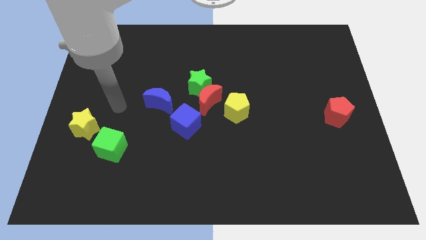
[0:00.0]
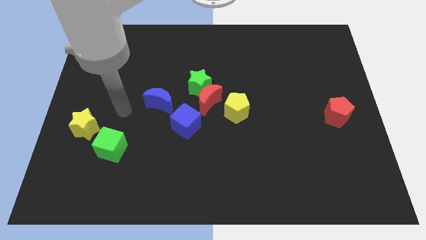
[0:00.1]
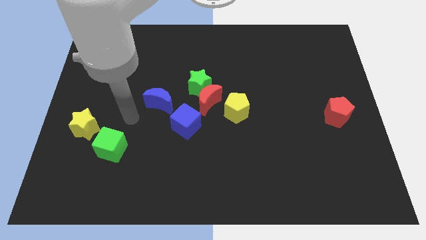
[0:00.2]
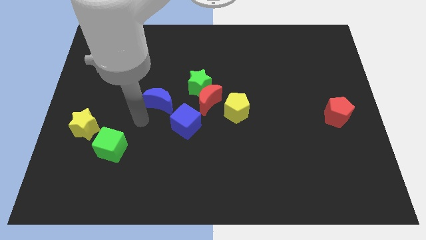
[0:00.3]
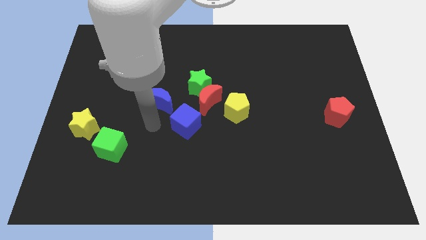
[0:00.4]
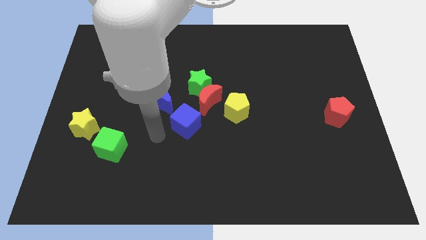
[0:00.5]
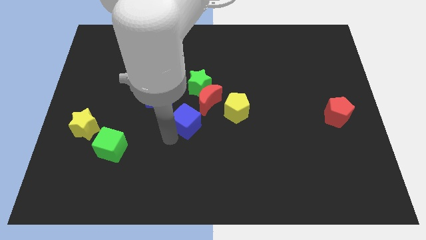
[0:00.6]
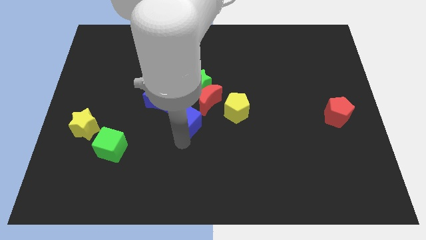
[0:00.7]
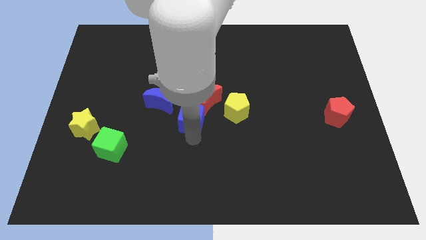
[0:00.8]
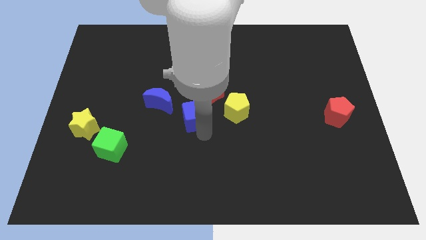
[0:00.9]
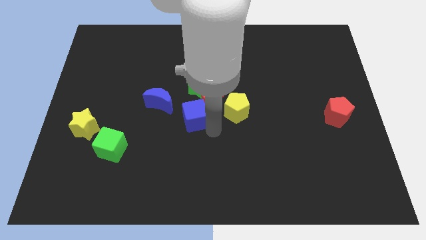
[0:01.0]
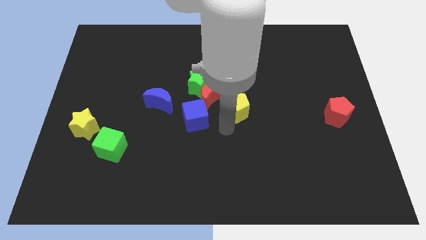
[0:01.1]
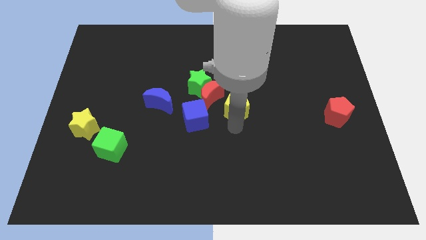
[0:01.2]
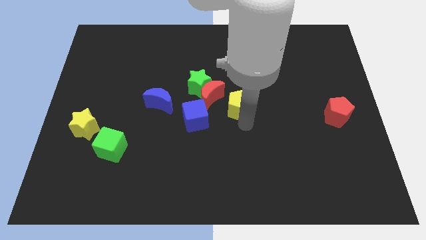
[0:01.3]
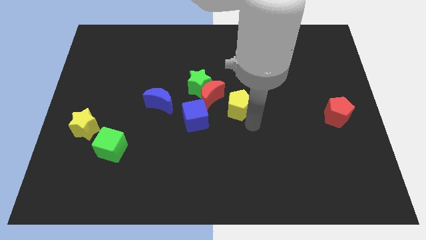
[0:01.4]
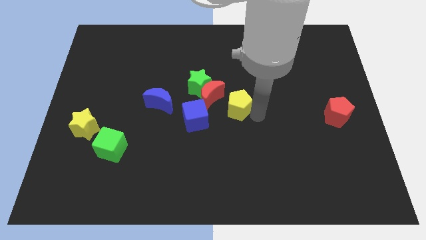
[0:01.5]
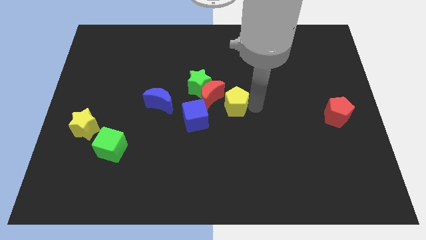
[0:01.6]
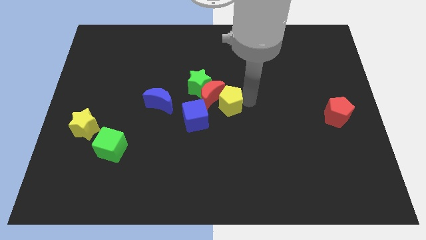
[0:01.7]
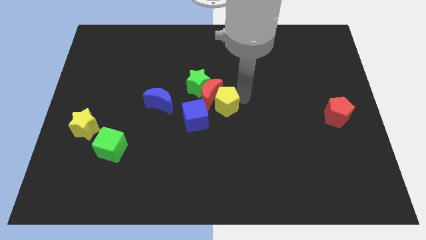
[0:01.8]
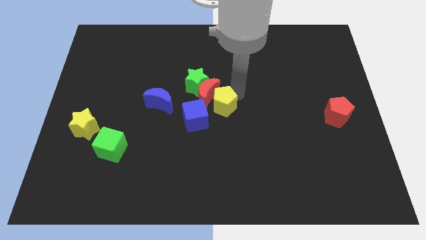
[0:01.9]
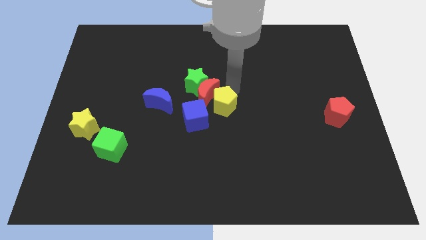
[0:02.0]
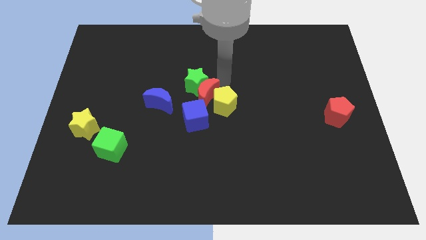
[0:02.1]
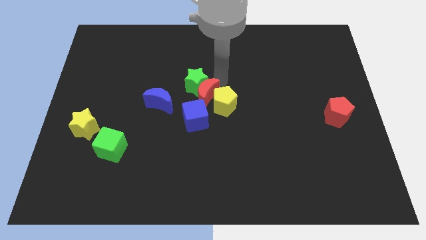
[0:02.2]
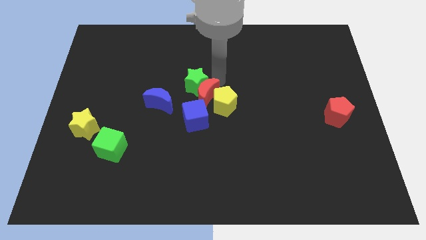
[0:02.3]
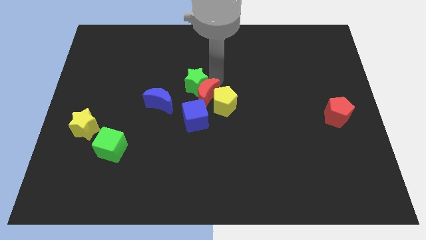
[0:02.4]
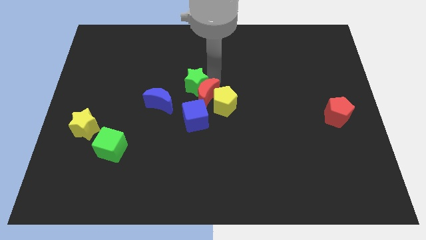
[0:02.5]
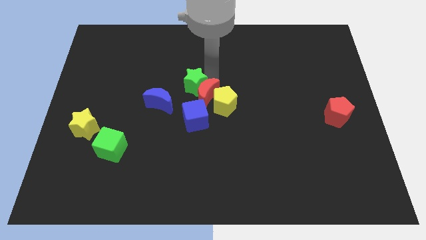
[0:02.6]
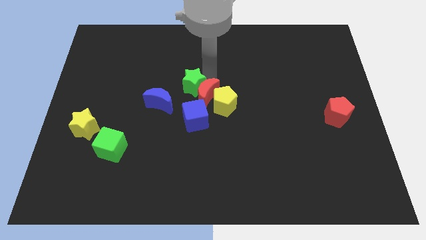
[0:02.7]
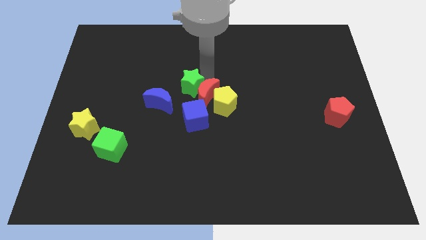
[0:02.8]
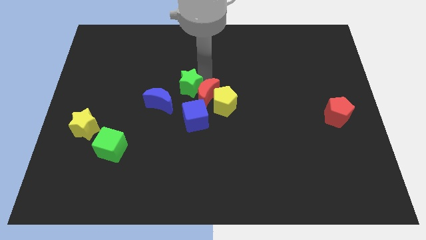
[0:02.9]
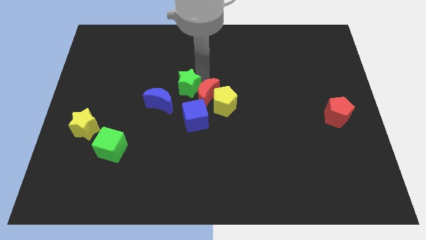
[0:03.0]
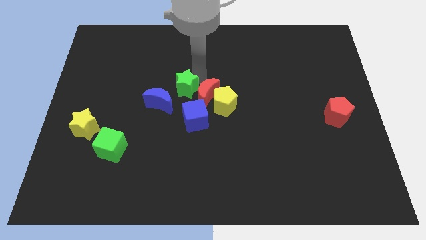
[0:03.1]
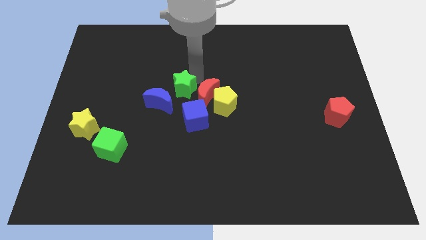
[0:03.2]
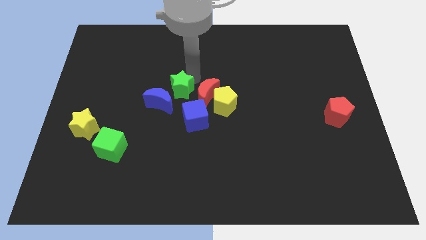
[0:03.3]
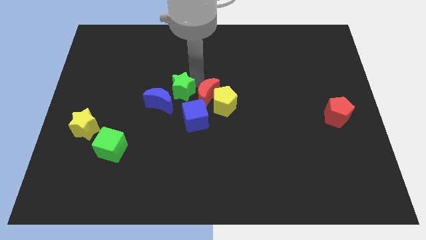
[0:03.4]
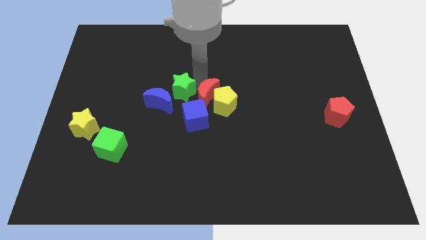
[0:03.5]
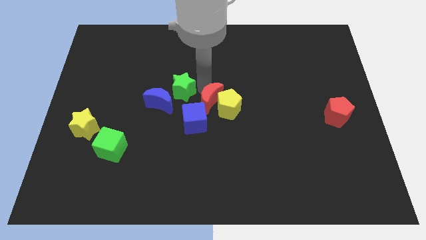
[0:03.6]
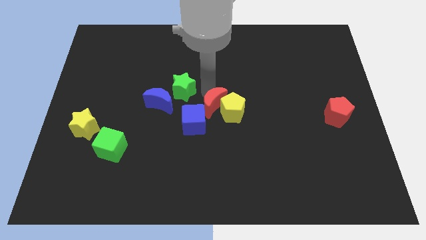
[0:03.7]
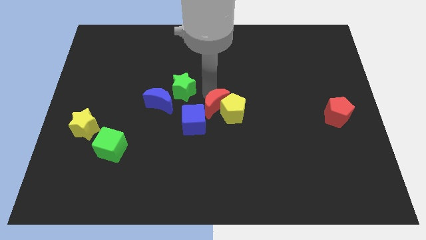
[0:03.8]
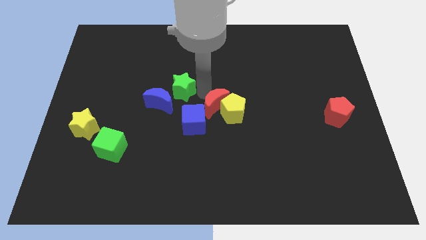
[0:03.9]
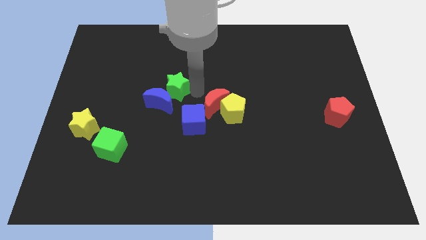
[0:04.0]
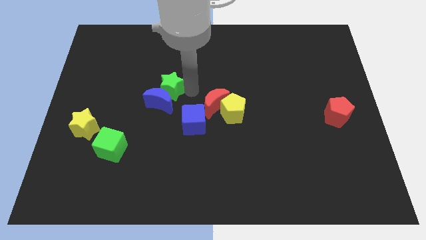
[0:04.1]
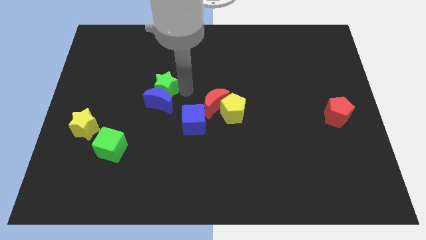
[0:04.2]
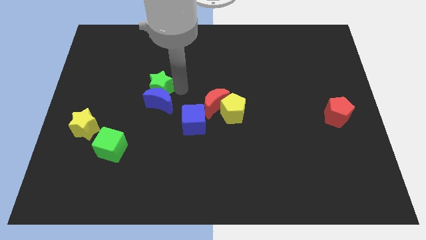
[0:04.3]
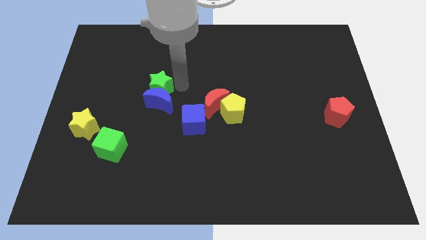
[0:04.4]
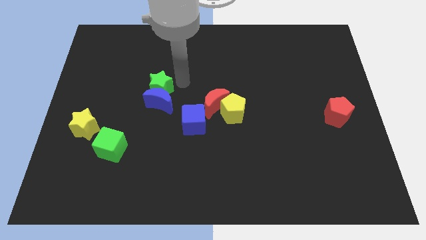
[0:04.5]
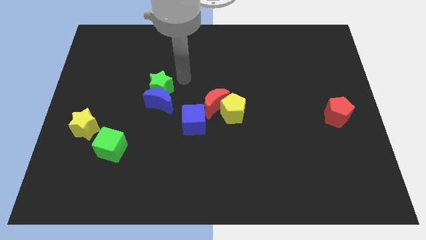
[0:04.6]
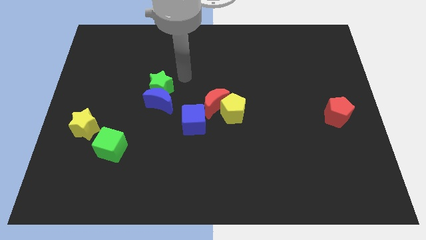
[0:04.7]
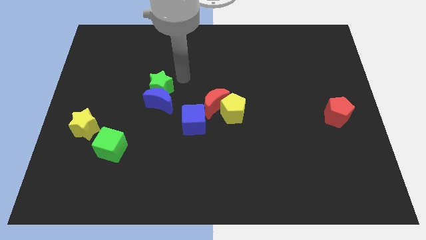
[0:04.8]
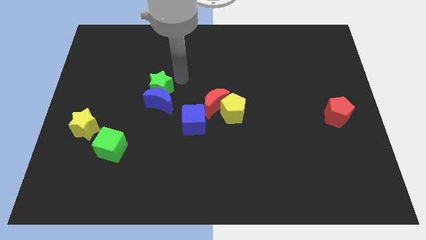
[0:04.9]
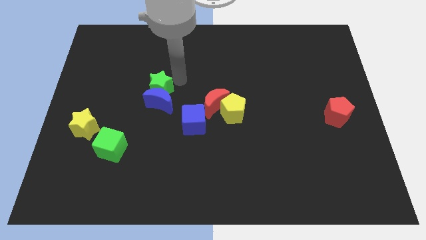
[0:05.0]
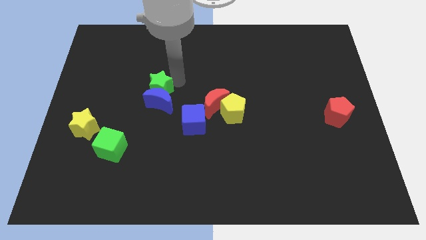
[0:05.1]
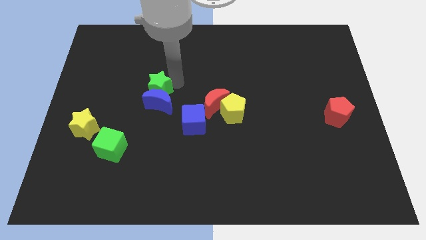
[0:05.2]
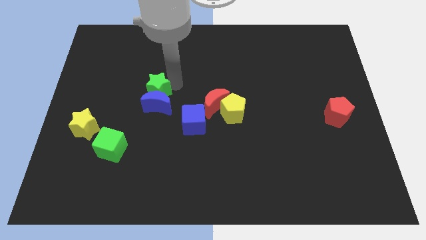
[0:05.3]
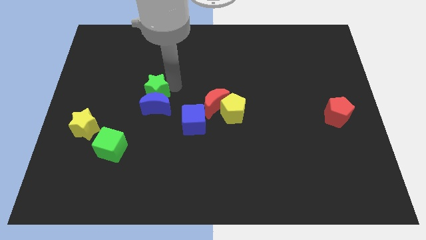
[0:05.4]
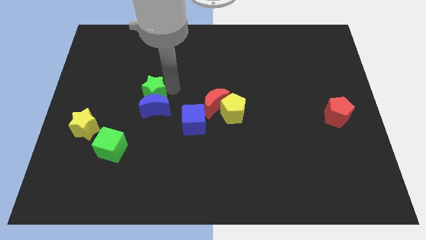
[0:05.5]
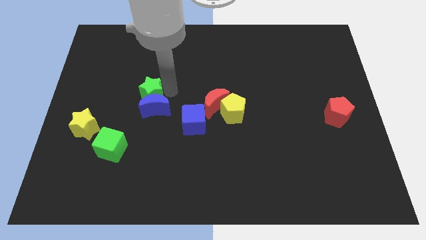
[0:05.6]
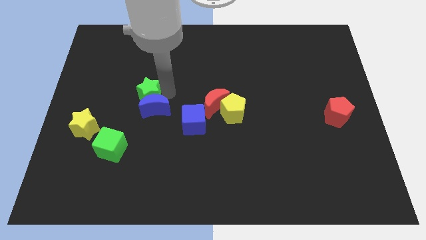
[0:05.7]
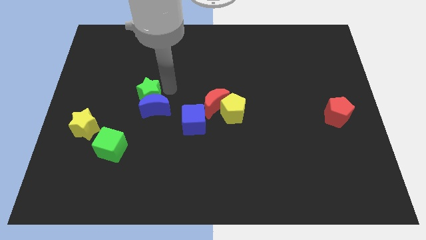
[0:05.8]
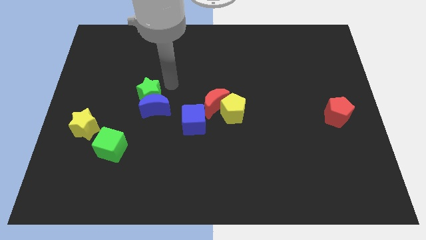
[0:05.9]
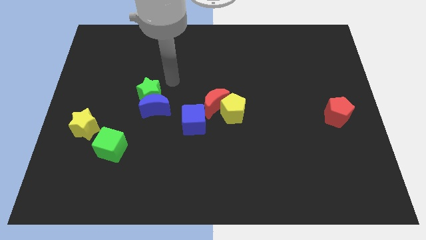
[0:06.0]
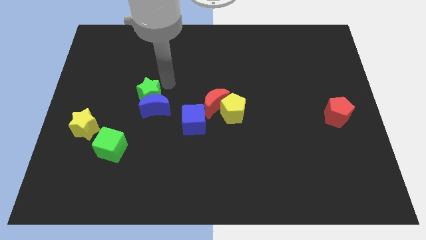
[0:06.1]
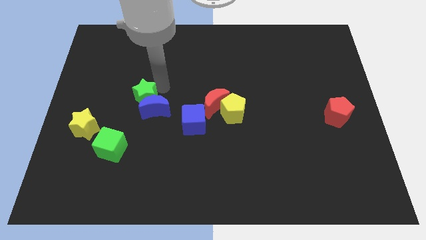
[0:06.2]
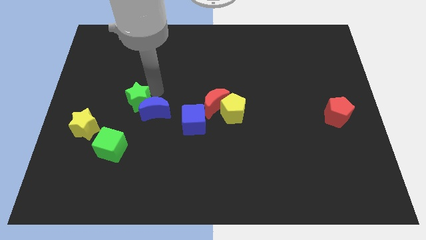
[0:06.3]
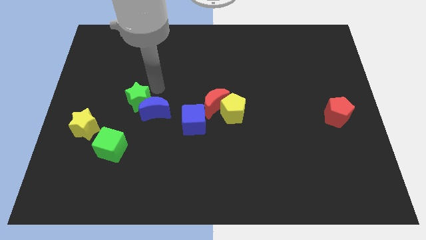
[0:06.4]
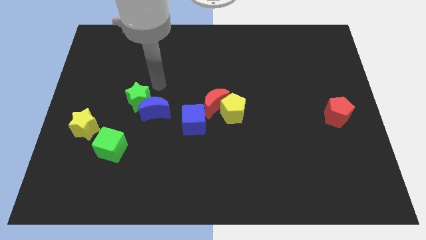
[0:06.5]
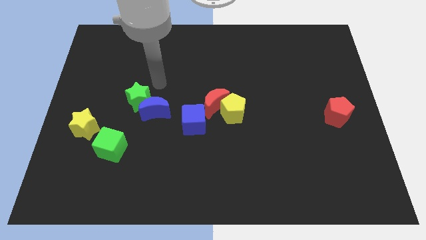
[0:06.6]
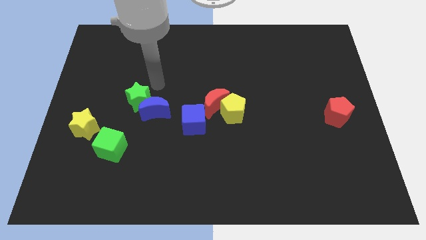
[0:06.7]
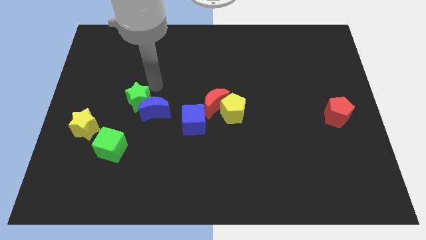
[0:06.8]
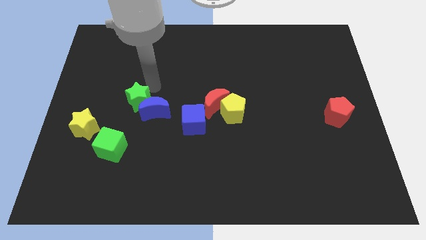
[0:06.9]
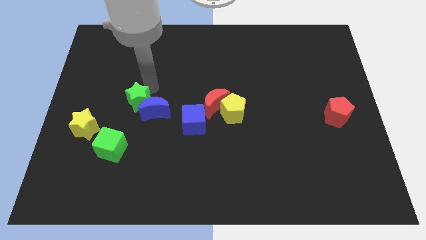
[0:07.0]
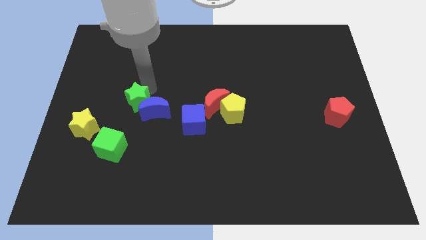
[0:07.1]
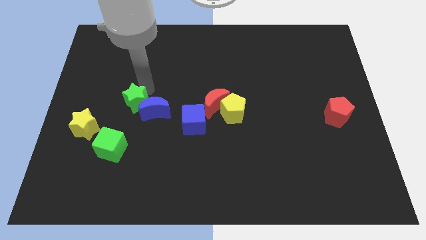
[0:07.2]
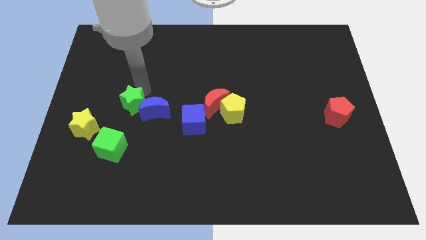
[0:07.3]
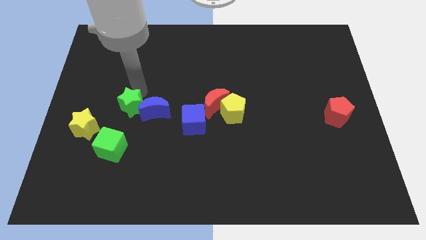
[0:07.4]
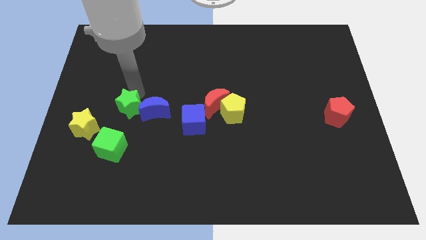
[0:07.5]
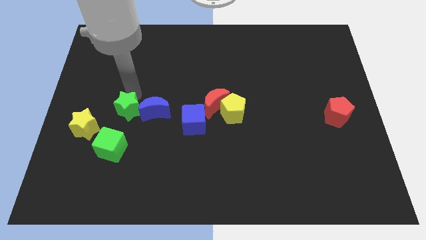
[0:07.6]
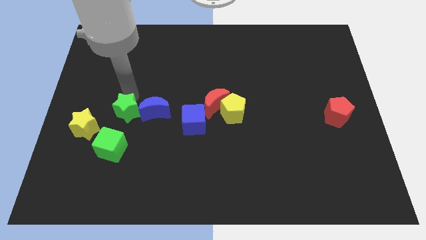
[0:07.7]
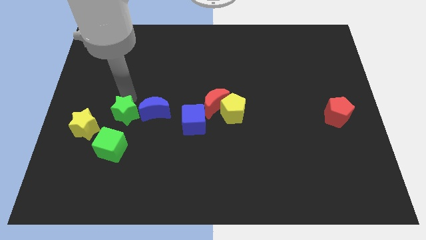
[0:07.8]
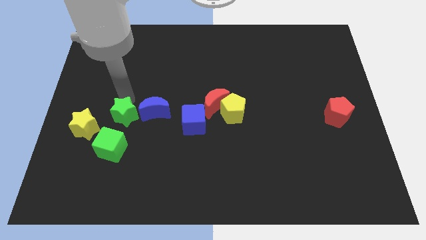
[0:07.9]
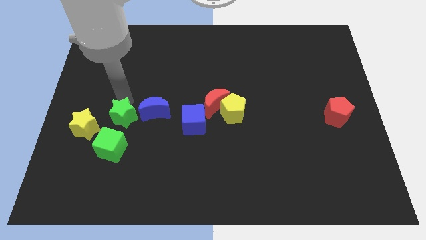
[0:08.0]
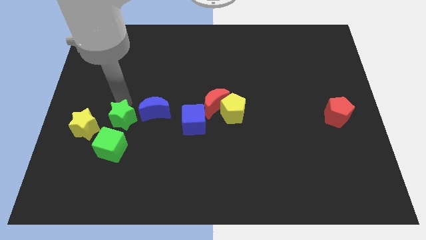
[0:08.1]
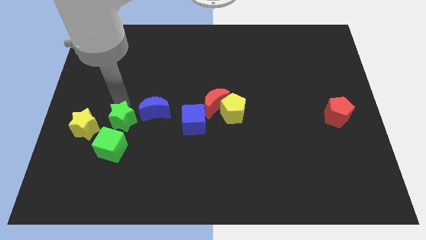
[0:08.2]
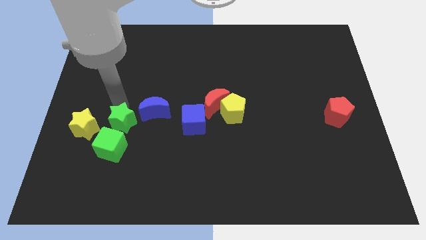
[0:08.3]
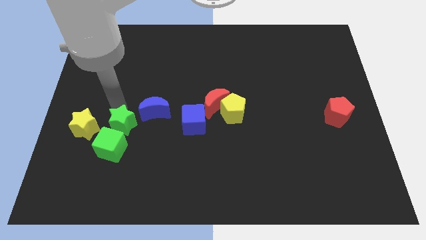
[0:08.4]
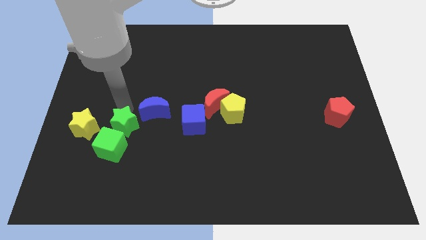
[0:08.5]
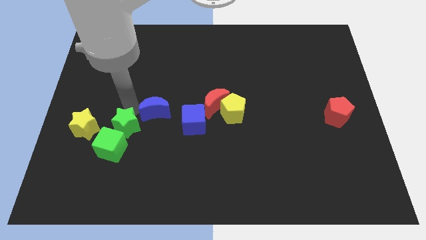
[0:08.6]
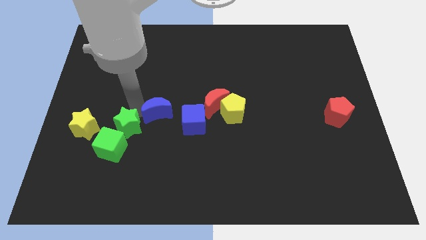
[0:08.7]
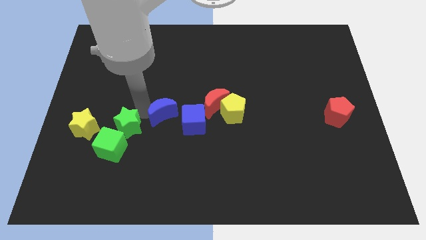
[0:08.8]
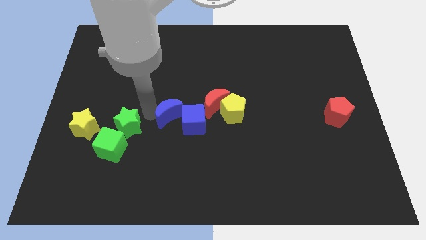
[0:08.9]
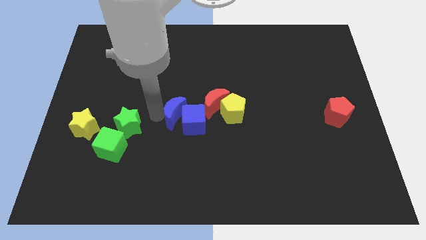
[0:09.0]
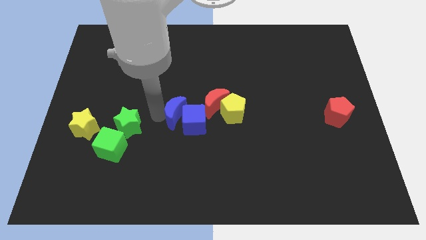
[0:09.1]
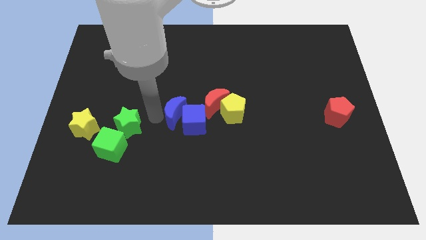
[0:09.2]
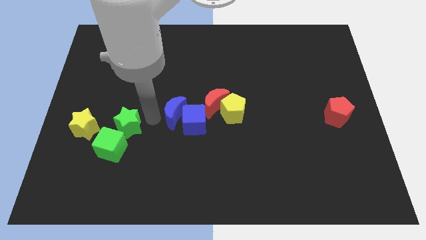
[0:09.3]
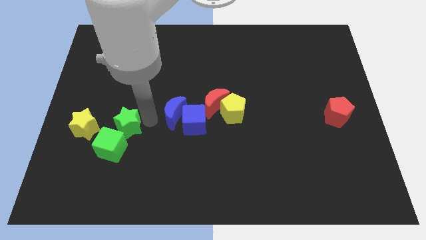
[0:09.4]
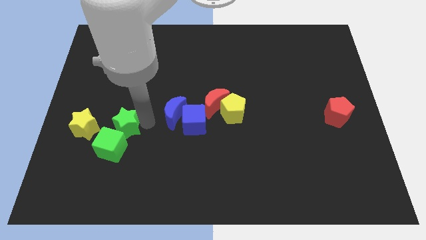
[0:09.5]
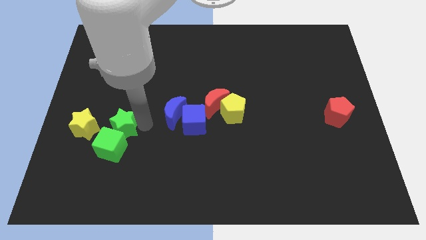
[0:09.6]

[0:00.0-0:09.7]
push the green star down and to the left
